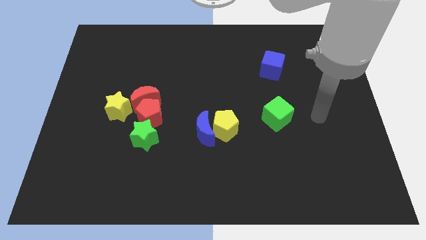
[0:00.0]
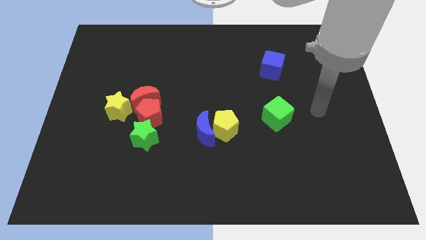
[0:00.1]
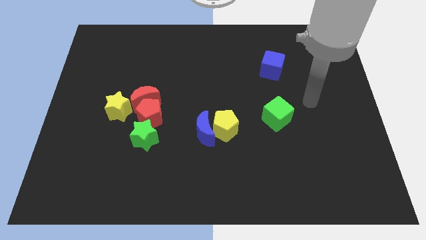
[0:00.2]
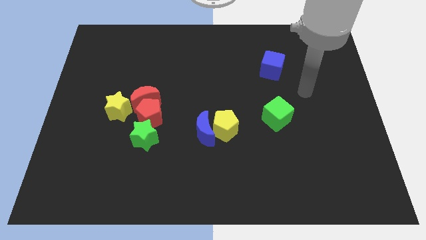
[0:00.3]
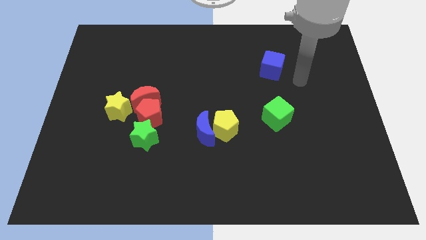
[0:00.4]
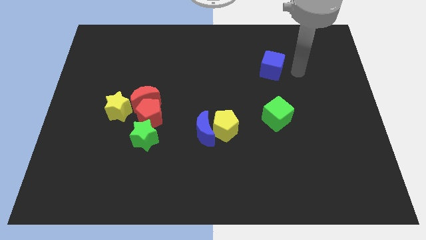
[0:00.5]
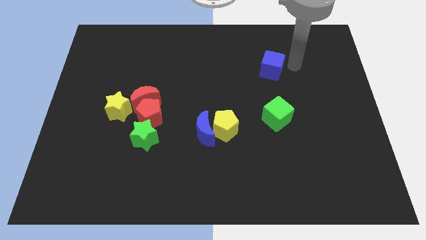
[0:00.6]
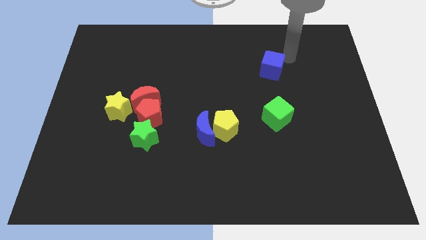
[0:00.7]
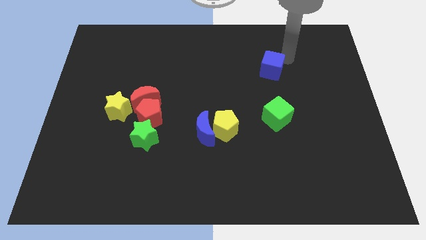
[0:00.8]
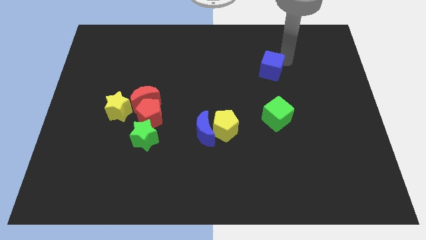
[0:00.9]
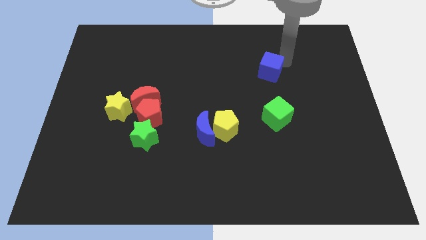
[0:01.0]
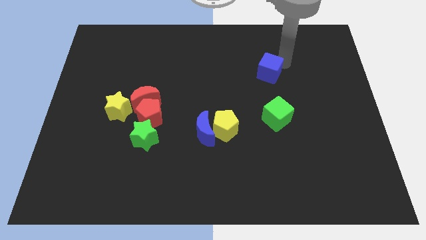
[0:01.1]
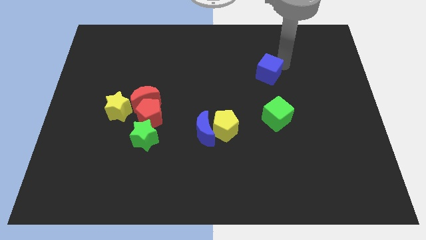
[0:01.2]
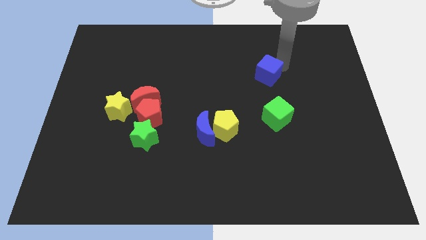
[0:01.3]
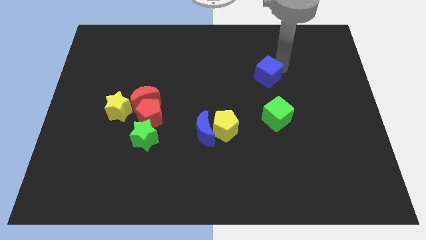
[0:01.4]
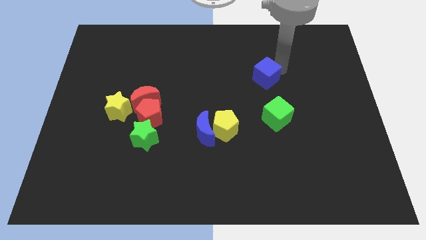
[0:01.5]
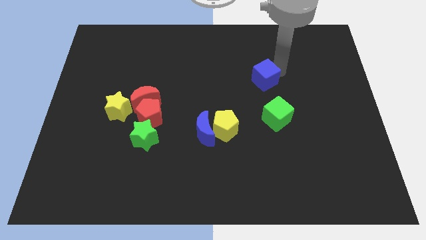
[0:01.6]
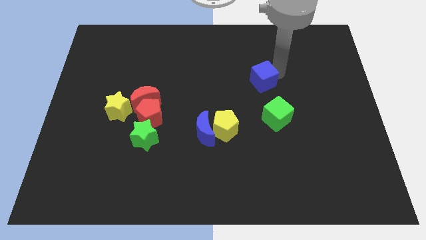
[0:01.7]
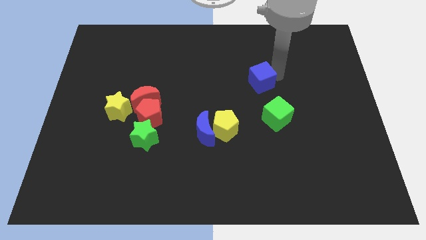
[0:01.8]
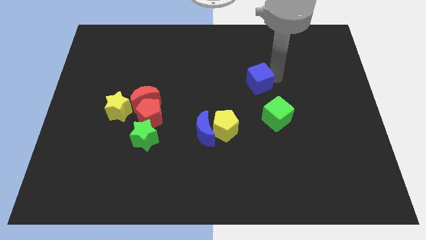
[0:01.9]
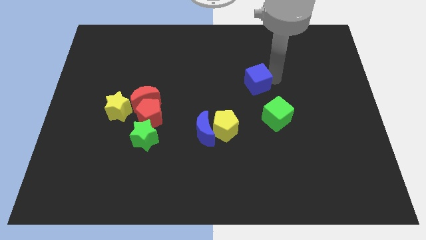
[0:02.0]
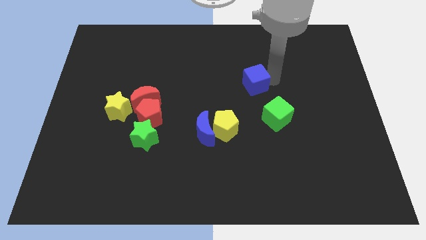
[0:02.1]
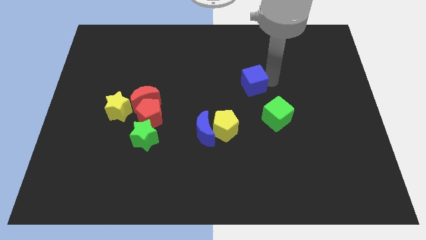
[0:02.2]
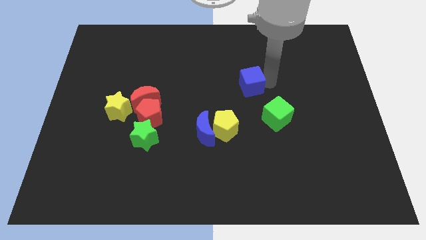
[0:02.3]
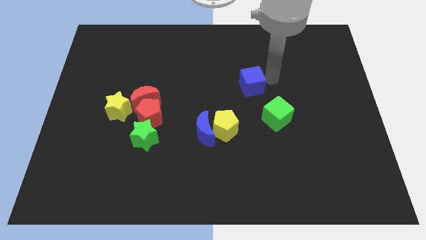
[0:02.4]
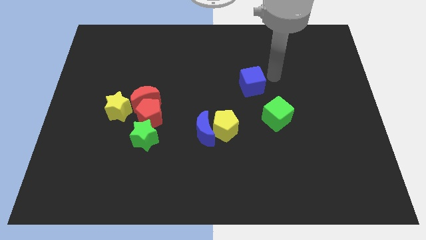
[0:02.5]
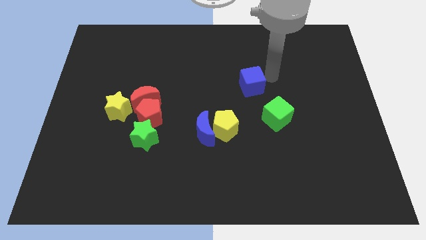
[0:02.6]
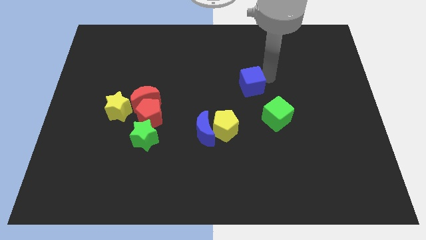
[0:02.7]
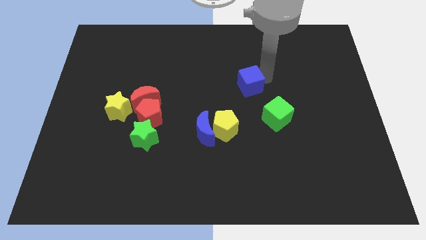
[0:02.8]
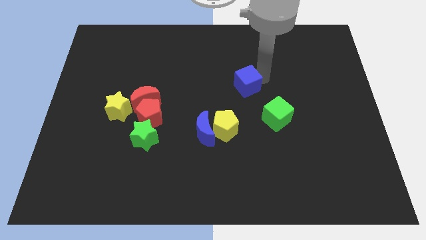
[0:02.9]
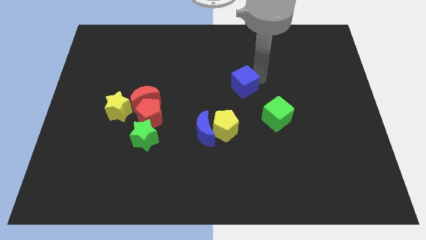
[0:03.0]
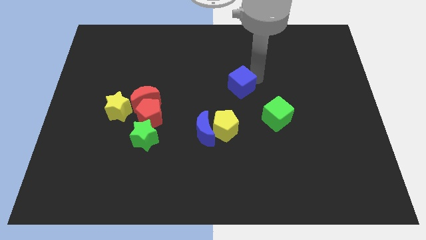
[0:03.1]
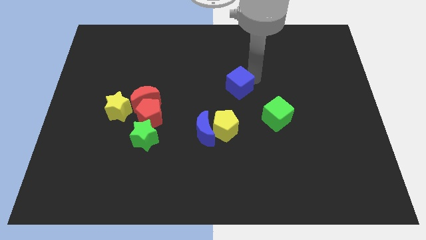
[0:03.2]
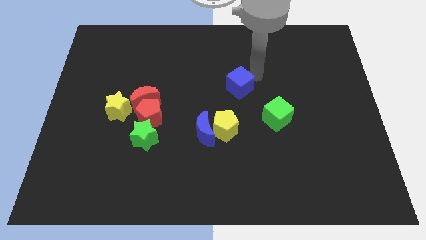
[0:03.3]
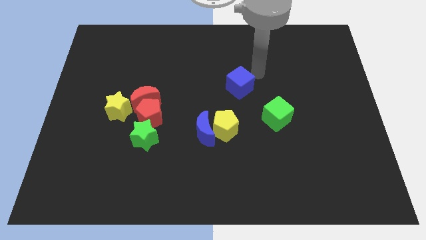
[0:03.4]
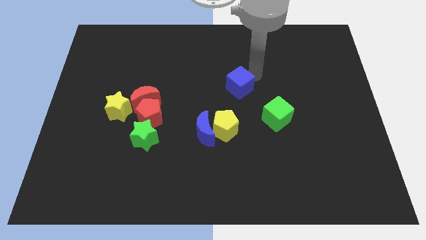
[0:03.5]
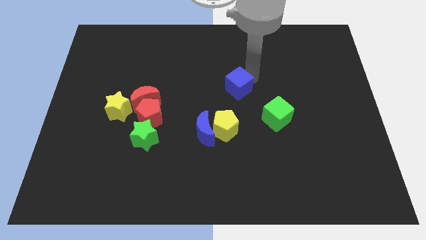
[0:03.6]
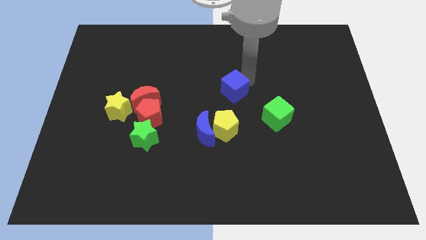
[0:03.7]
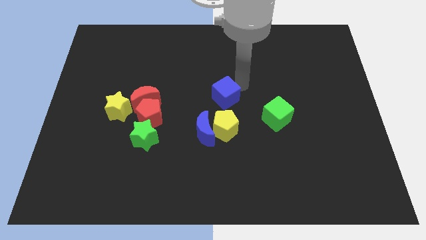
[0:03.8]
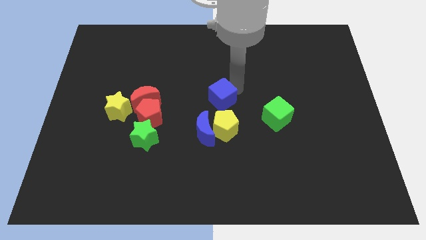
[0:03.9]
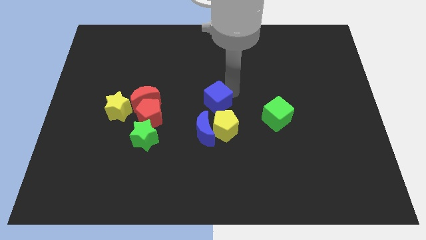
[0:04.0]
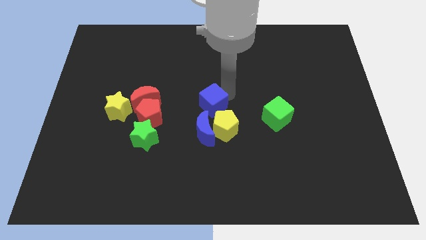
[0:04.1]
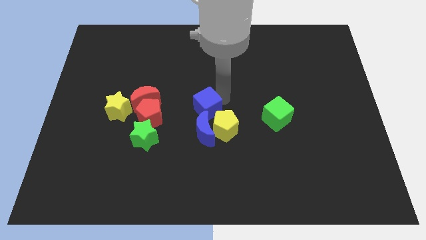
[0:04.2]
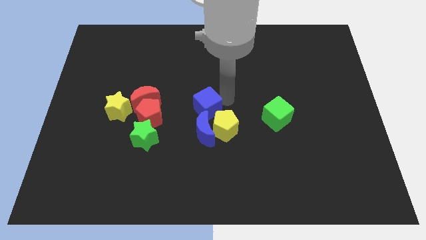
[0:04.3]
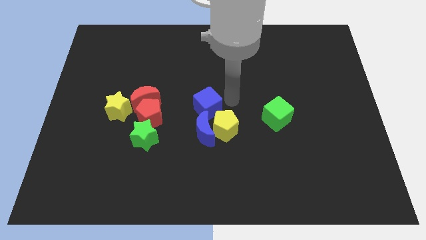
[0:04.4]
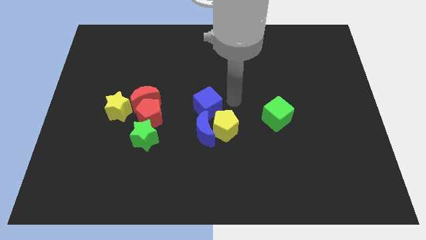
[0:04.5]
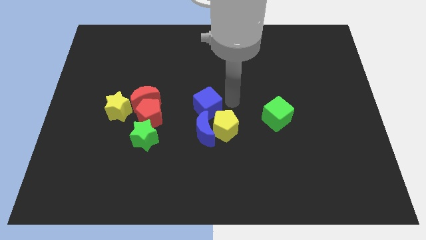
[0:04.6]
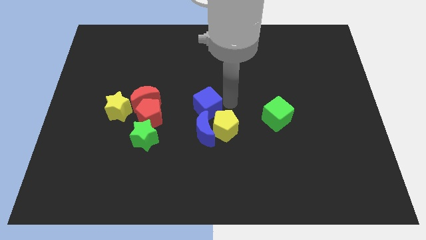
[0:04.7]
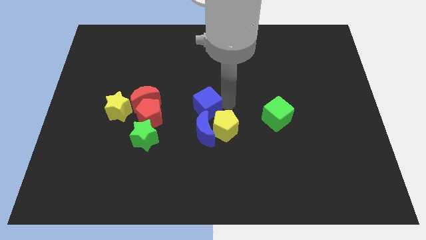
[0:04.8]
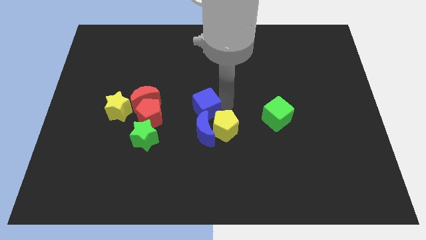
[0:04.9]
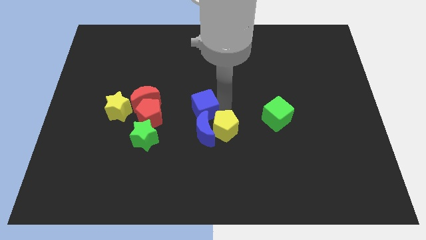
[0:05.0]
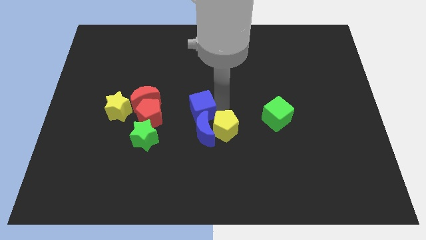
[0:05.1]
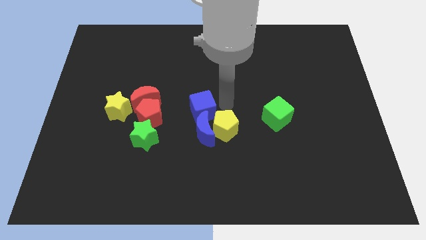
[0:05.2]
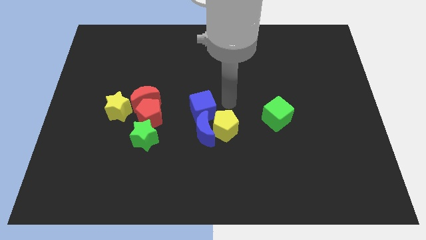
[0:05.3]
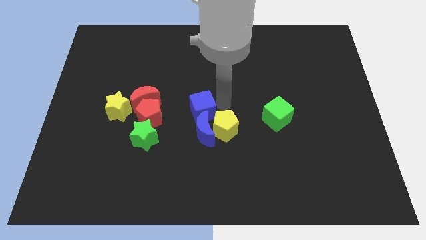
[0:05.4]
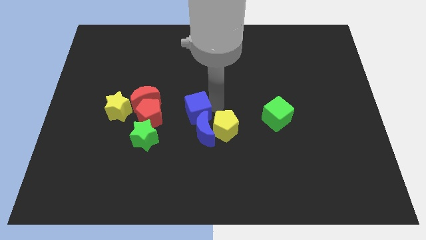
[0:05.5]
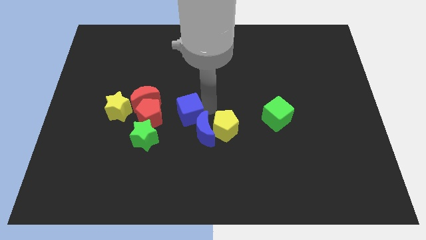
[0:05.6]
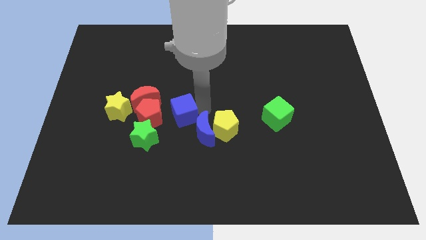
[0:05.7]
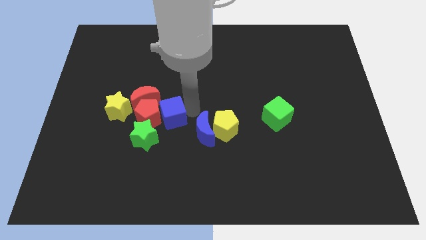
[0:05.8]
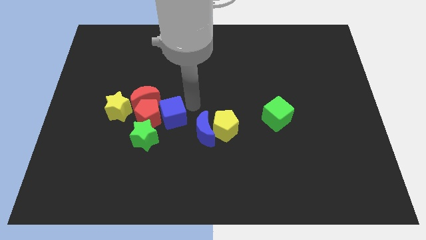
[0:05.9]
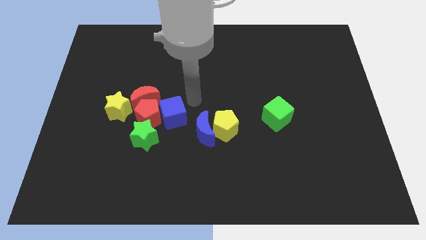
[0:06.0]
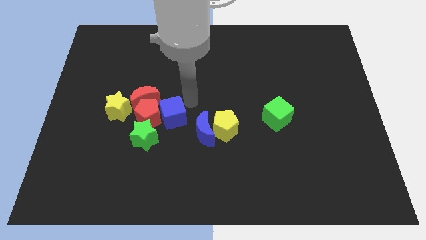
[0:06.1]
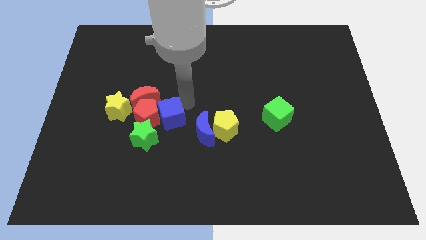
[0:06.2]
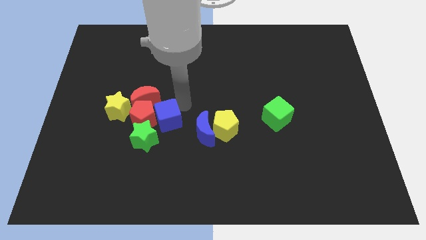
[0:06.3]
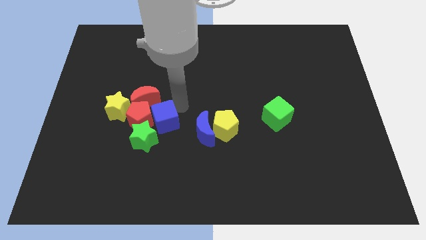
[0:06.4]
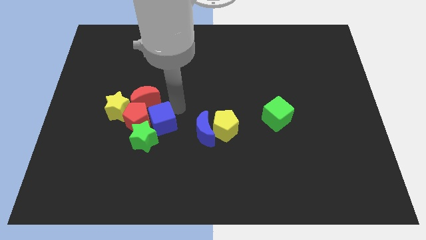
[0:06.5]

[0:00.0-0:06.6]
slide the blue cube to the green star

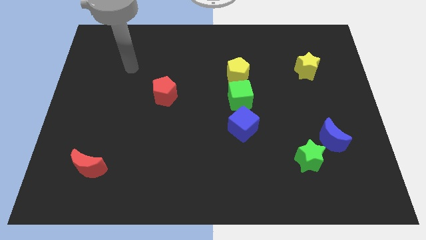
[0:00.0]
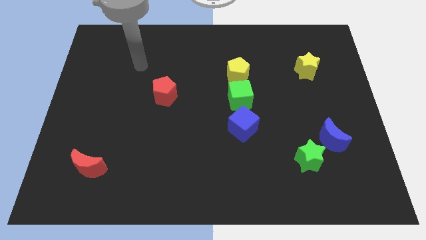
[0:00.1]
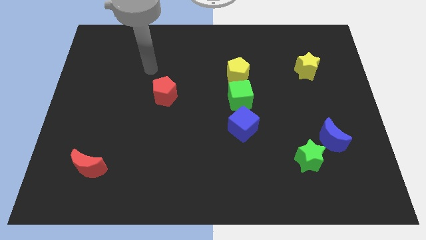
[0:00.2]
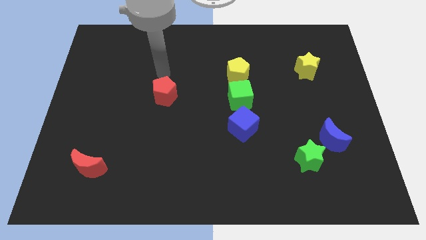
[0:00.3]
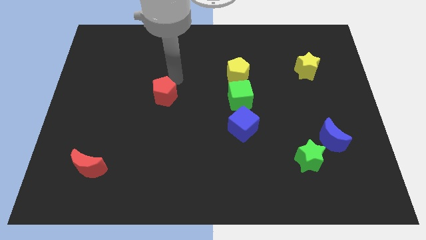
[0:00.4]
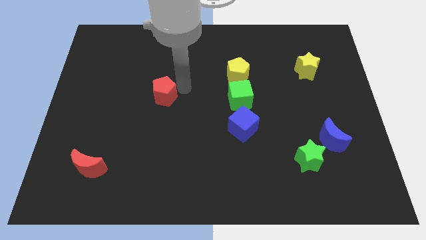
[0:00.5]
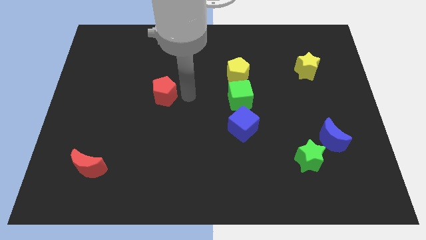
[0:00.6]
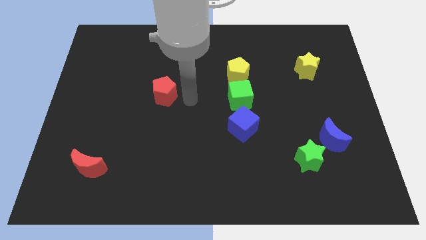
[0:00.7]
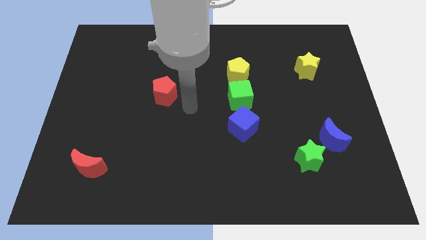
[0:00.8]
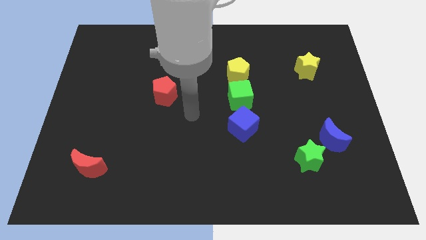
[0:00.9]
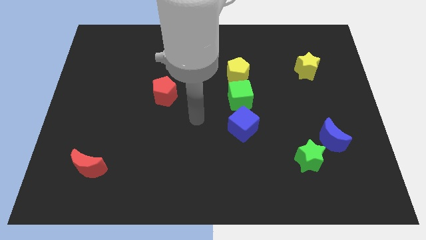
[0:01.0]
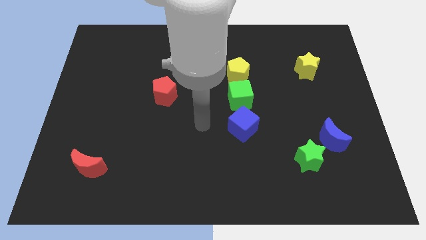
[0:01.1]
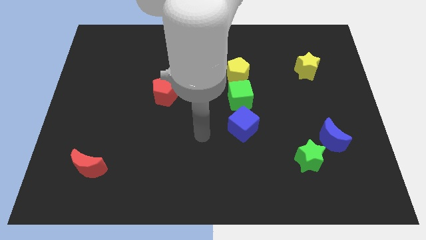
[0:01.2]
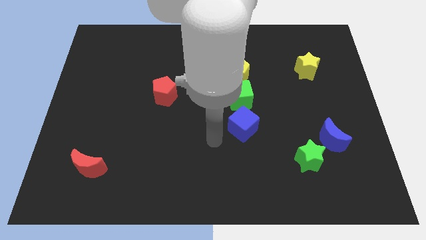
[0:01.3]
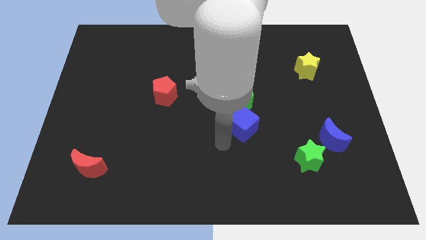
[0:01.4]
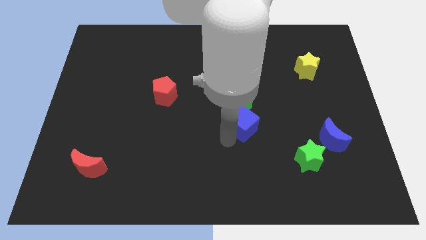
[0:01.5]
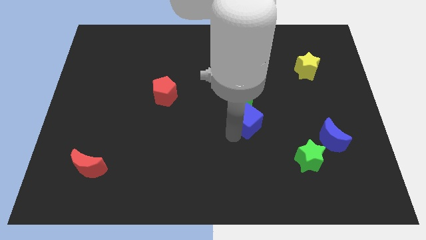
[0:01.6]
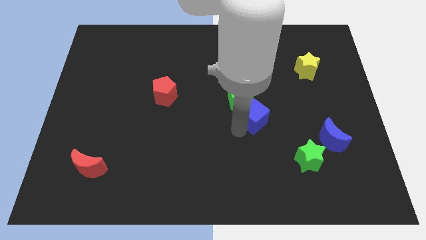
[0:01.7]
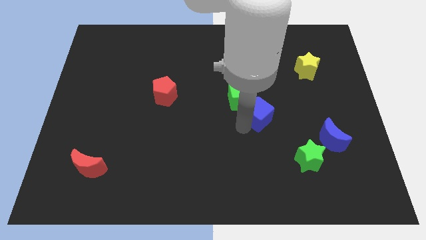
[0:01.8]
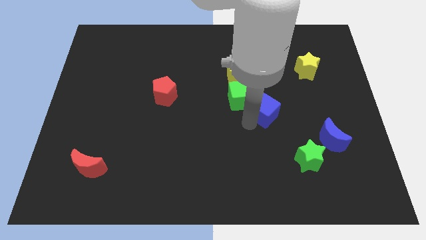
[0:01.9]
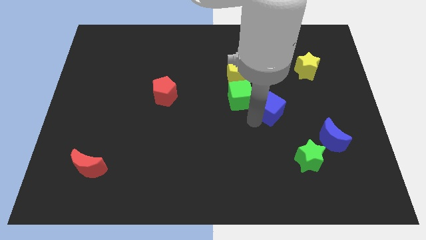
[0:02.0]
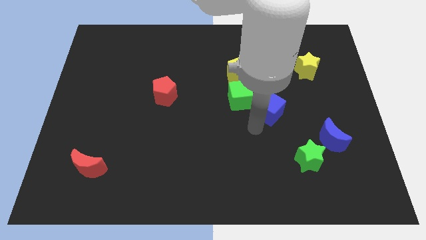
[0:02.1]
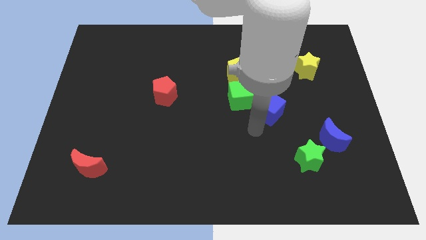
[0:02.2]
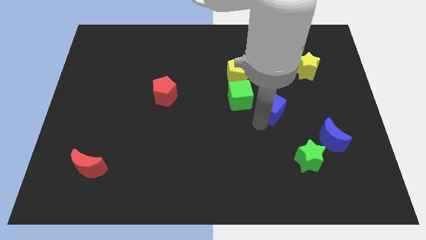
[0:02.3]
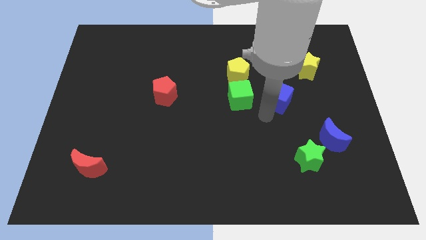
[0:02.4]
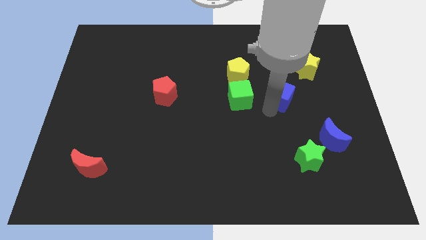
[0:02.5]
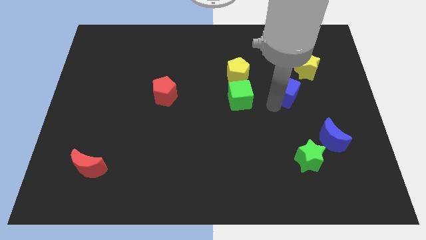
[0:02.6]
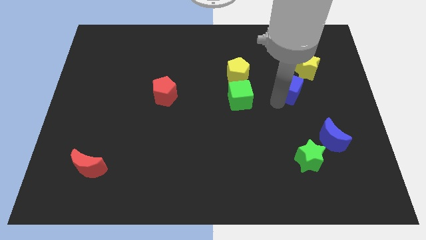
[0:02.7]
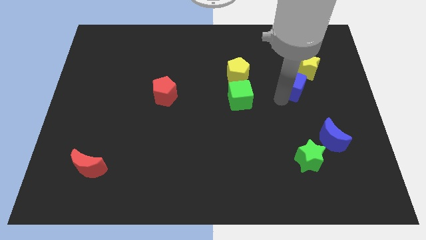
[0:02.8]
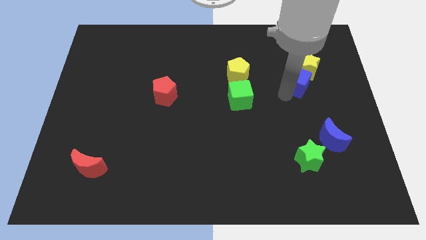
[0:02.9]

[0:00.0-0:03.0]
push the blue cube next to the yellow star
